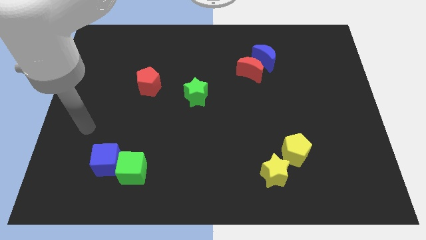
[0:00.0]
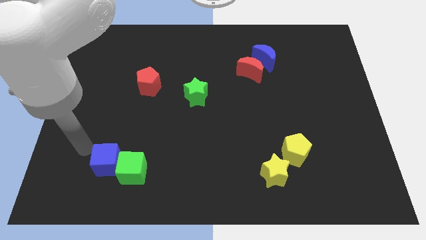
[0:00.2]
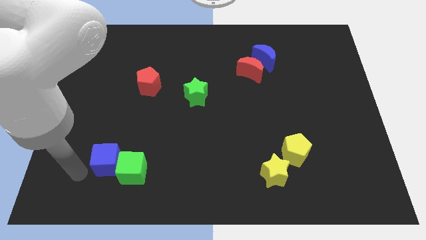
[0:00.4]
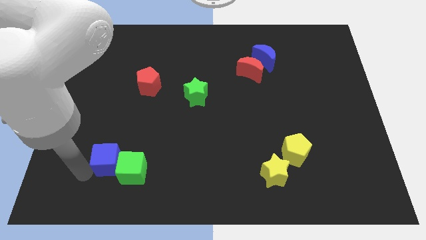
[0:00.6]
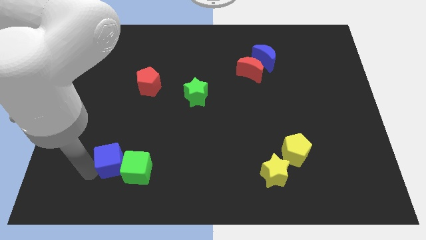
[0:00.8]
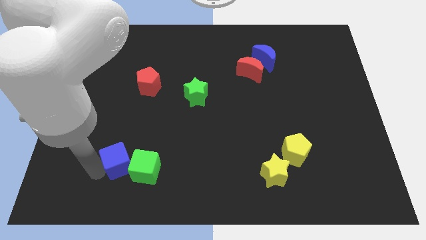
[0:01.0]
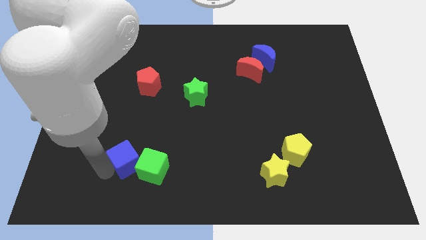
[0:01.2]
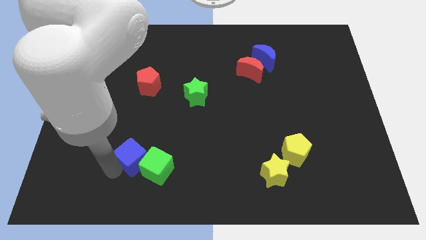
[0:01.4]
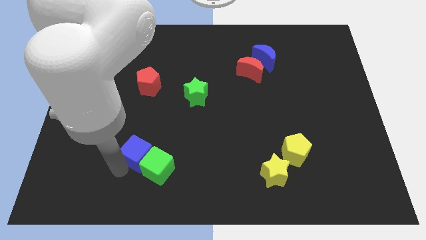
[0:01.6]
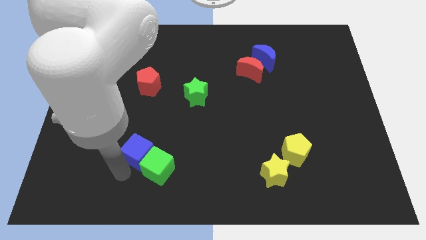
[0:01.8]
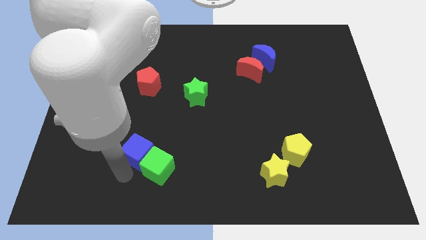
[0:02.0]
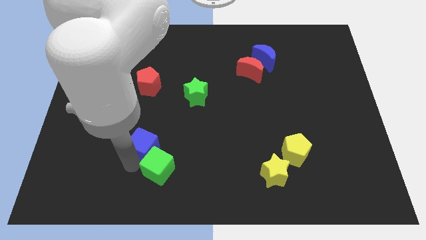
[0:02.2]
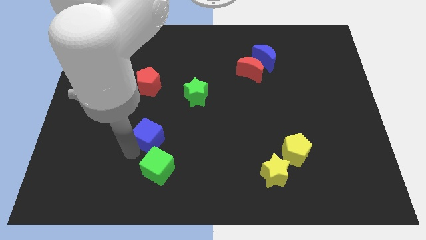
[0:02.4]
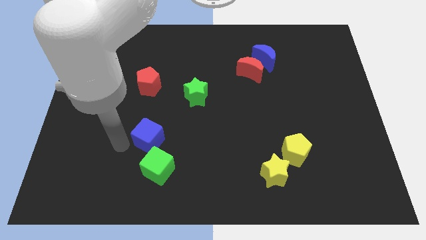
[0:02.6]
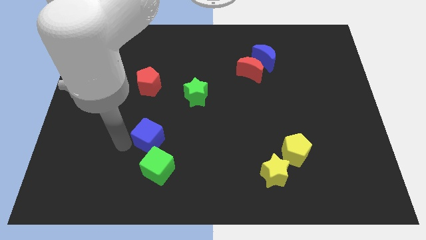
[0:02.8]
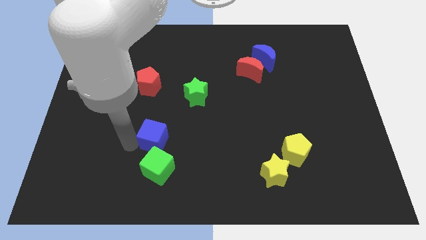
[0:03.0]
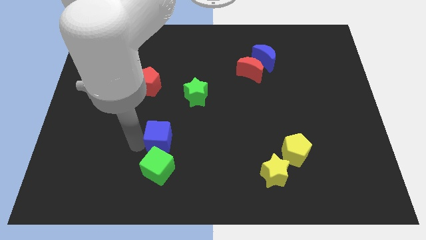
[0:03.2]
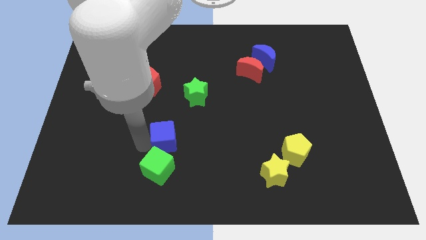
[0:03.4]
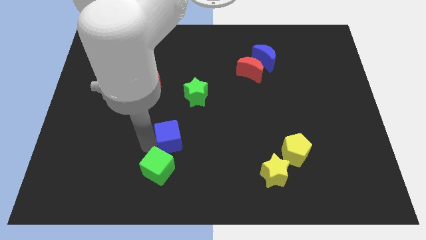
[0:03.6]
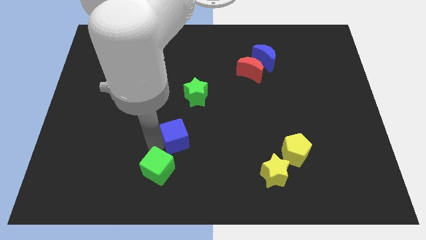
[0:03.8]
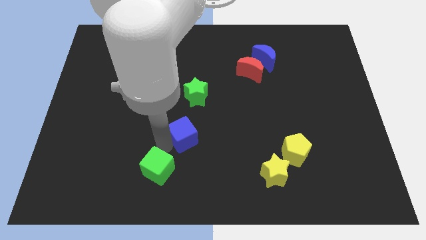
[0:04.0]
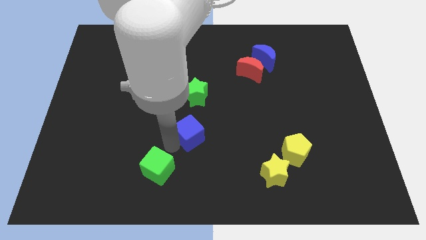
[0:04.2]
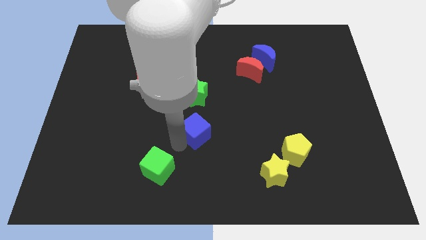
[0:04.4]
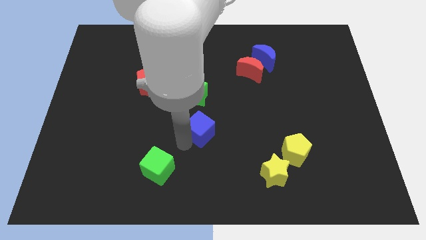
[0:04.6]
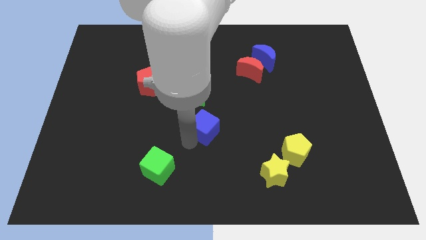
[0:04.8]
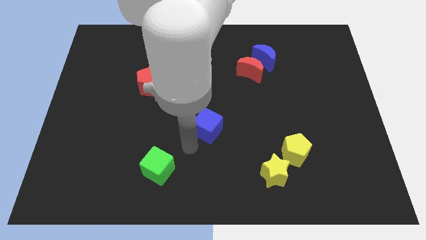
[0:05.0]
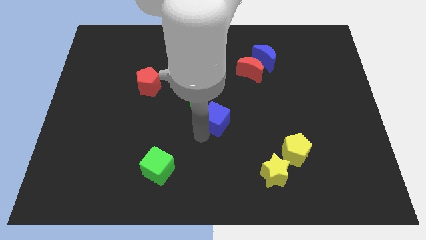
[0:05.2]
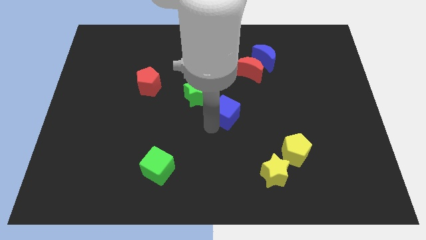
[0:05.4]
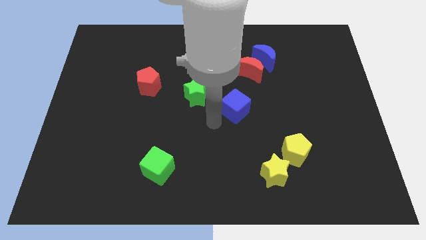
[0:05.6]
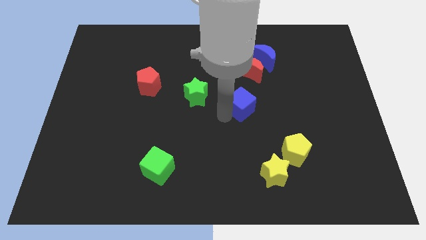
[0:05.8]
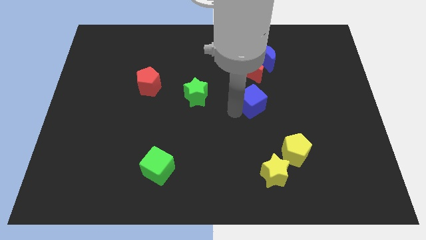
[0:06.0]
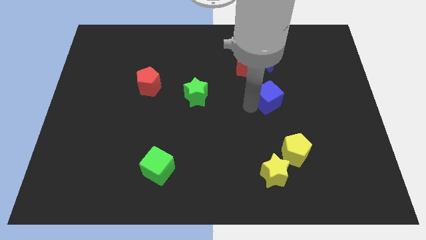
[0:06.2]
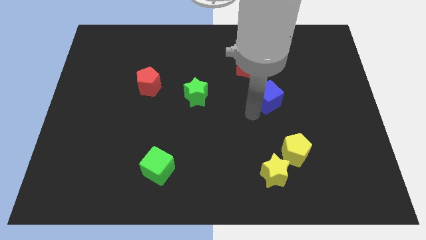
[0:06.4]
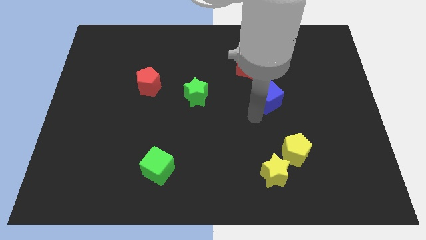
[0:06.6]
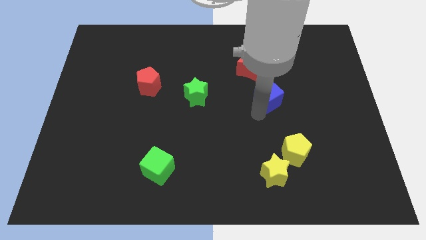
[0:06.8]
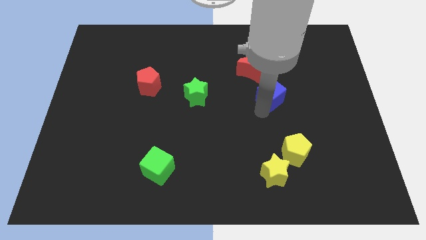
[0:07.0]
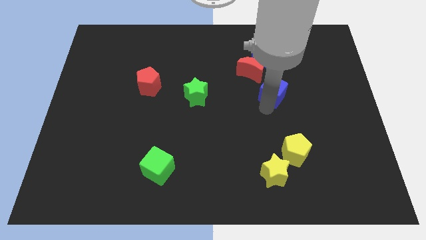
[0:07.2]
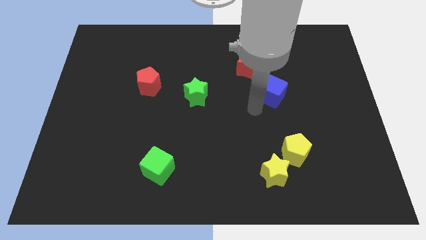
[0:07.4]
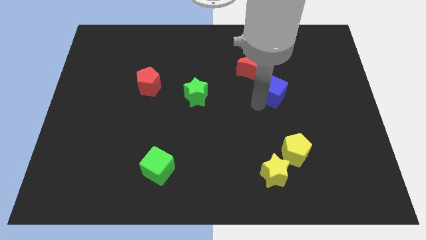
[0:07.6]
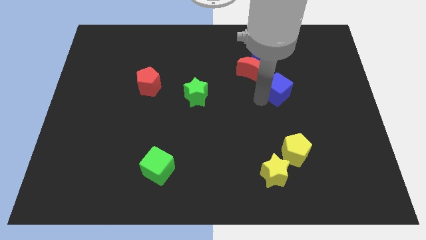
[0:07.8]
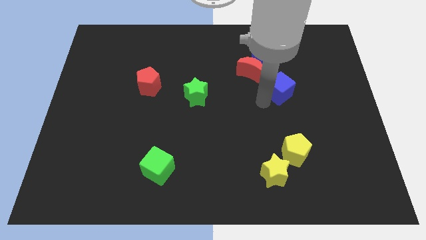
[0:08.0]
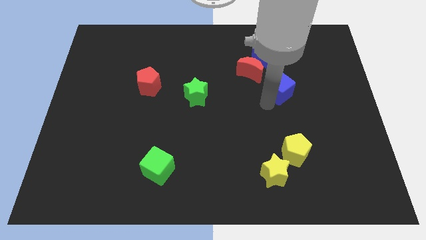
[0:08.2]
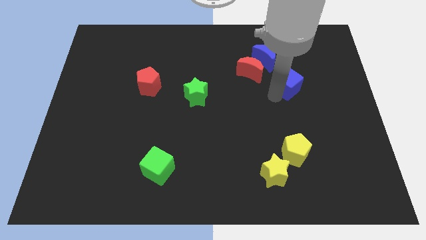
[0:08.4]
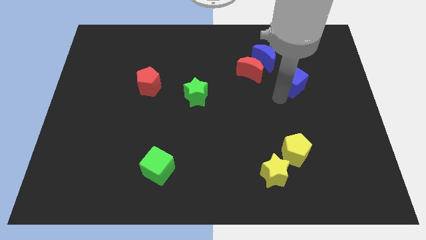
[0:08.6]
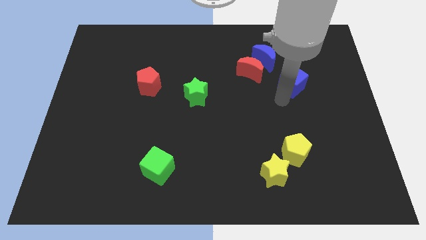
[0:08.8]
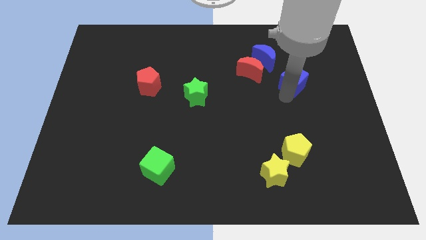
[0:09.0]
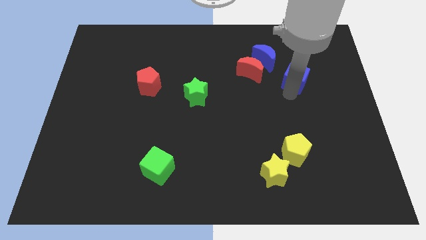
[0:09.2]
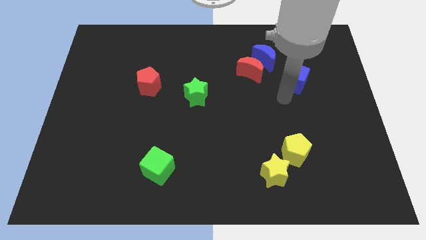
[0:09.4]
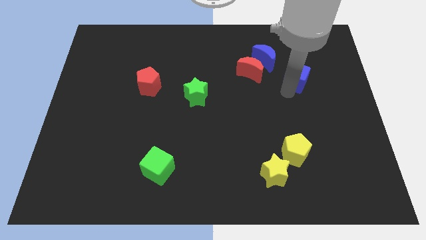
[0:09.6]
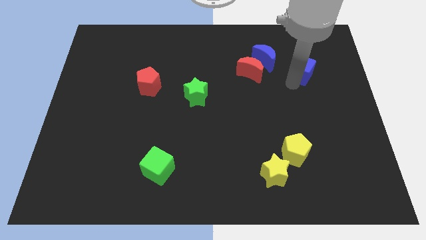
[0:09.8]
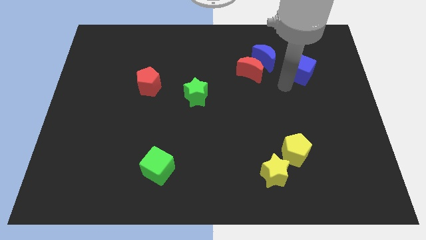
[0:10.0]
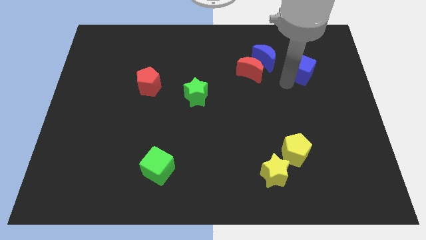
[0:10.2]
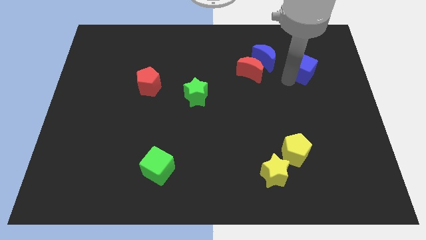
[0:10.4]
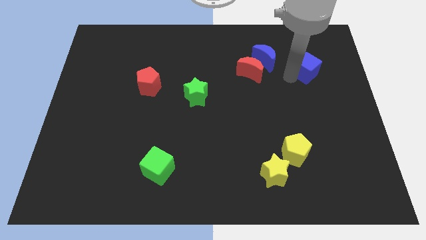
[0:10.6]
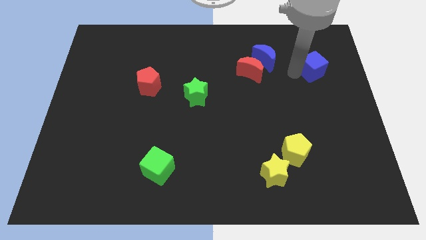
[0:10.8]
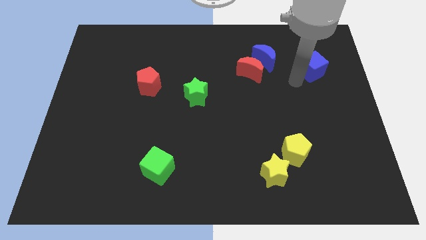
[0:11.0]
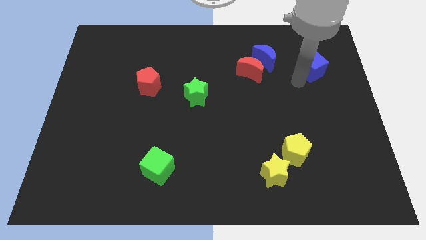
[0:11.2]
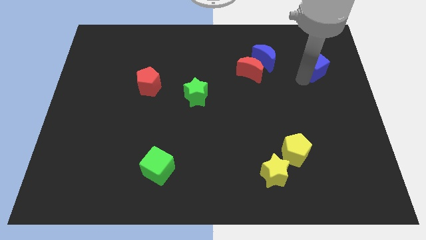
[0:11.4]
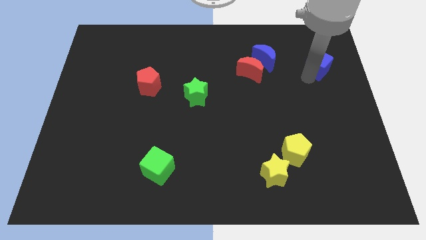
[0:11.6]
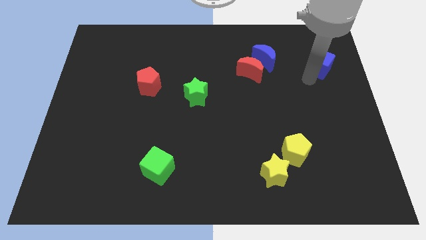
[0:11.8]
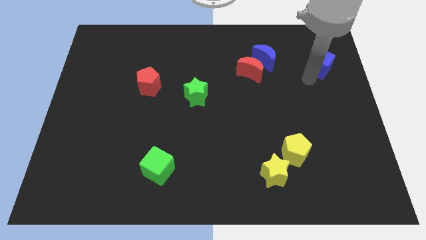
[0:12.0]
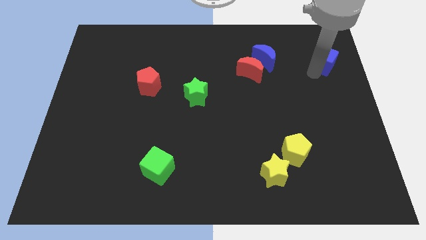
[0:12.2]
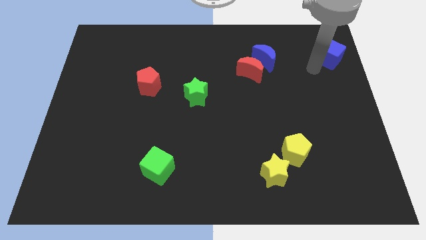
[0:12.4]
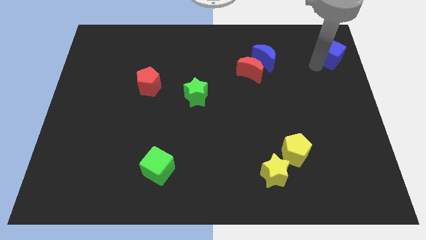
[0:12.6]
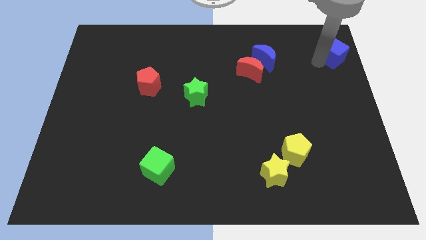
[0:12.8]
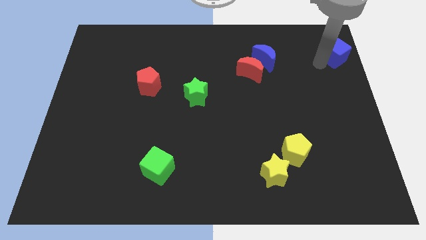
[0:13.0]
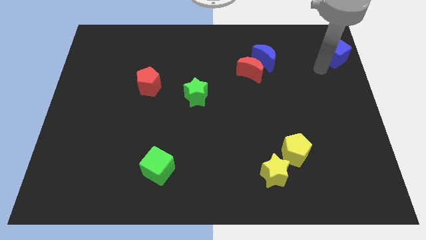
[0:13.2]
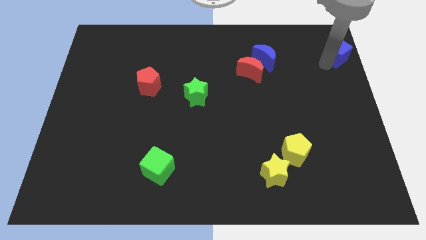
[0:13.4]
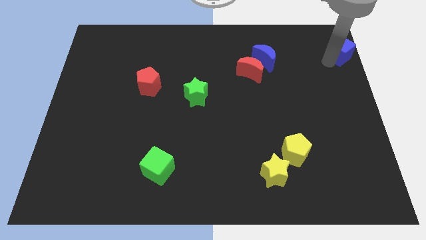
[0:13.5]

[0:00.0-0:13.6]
slide the blue cube to the top right of the board
